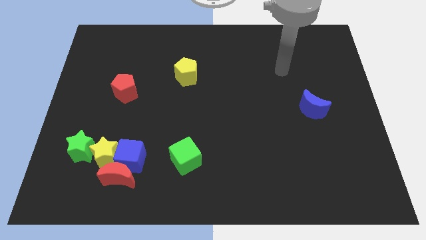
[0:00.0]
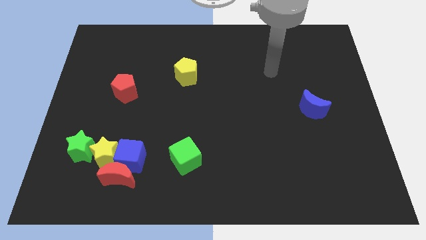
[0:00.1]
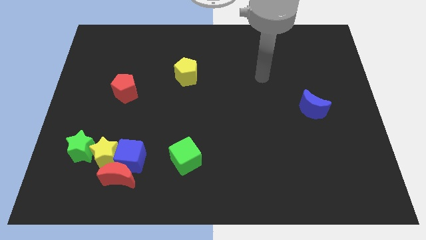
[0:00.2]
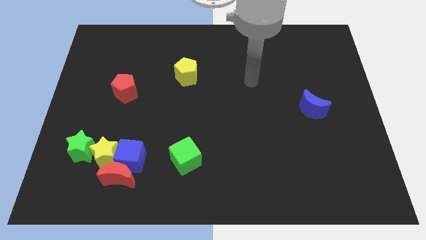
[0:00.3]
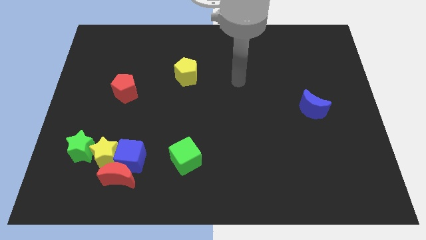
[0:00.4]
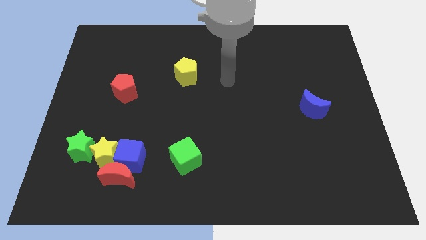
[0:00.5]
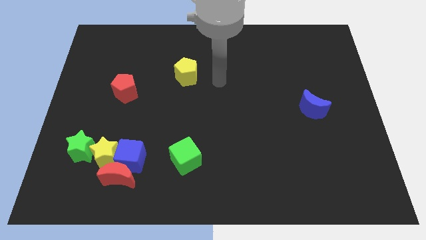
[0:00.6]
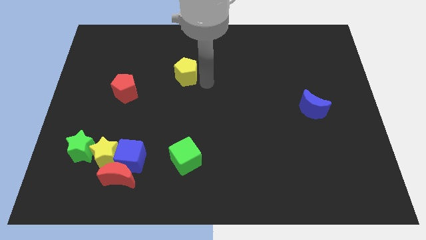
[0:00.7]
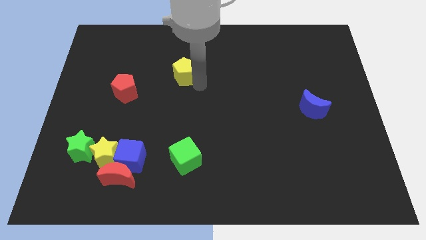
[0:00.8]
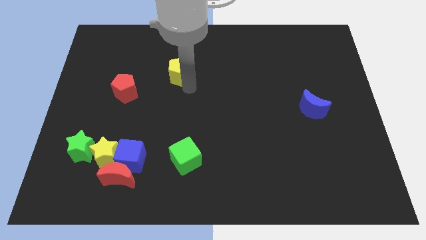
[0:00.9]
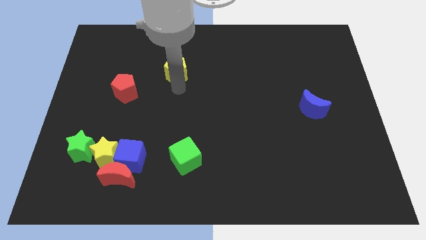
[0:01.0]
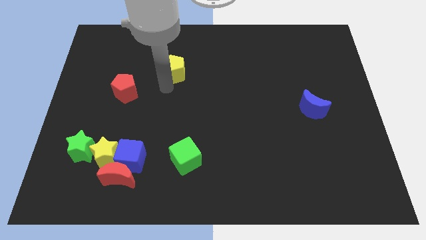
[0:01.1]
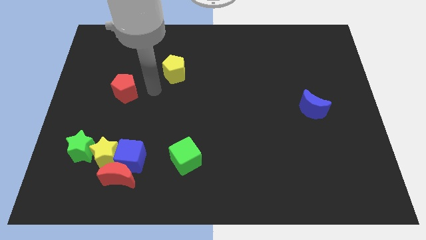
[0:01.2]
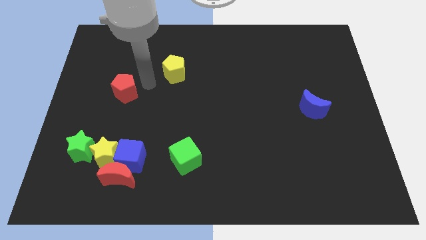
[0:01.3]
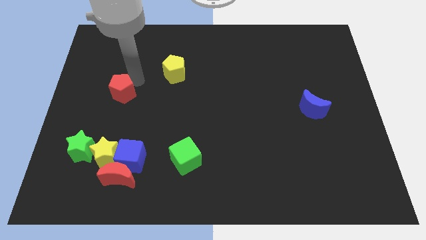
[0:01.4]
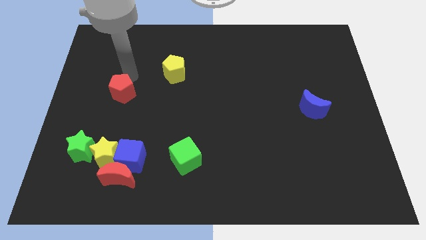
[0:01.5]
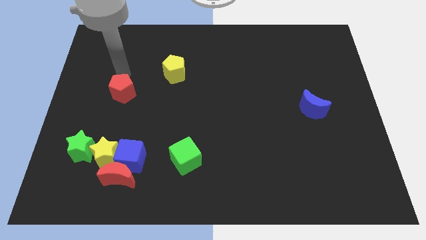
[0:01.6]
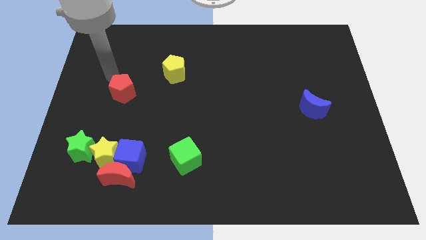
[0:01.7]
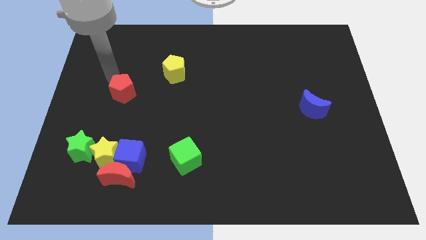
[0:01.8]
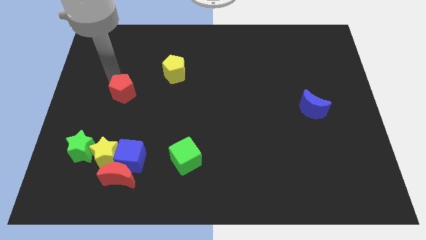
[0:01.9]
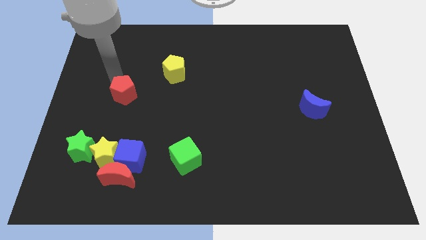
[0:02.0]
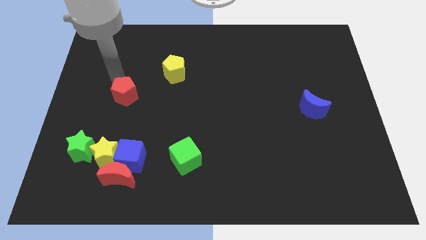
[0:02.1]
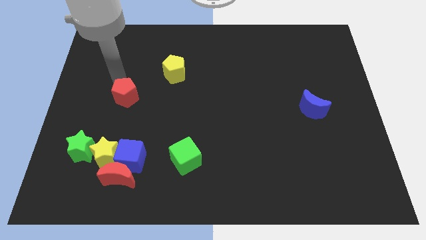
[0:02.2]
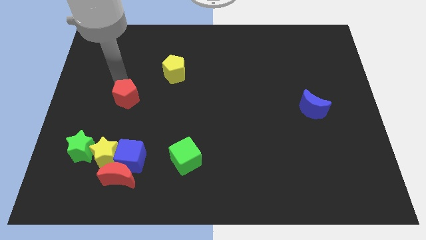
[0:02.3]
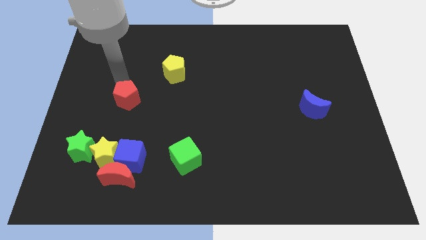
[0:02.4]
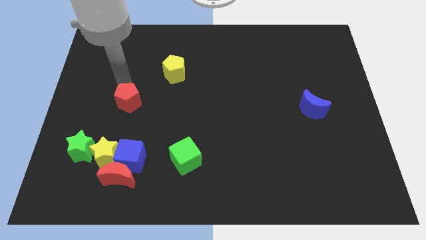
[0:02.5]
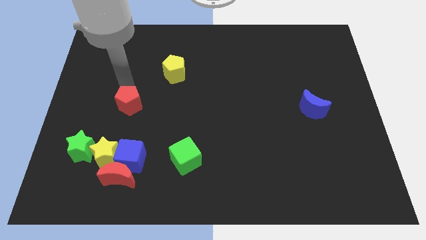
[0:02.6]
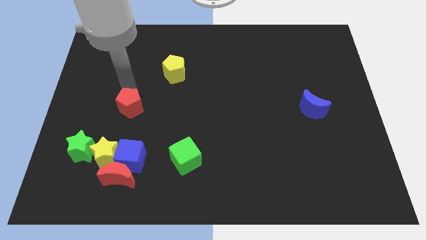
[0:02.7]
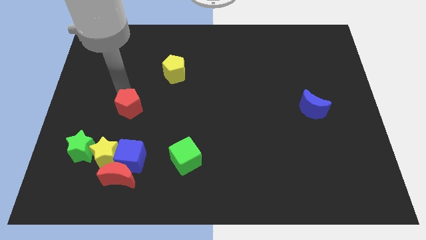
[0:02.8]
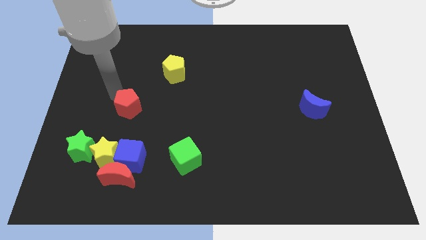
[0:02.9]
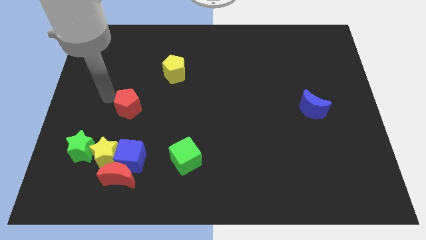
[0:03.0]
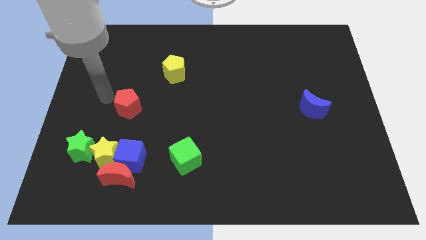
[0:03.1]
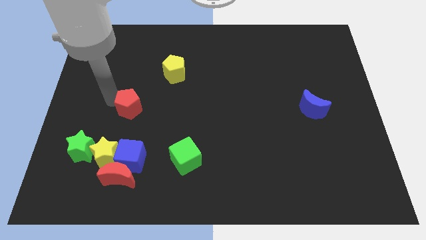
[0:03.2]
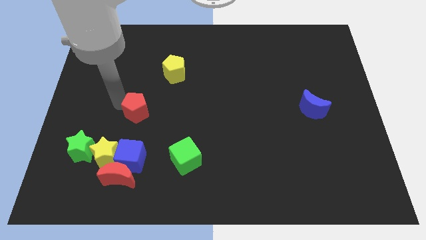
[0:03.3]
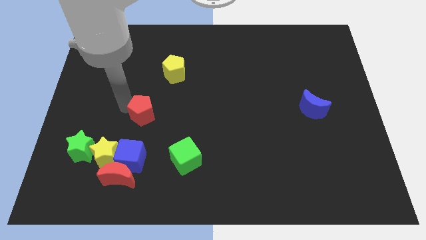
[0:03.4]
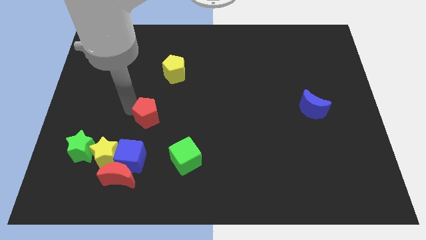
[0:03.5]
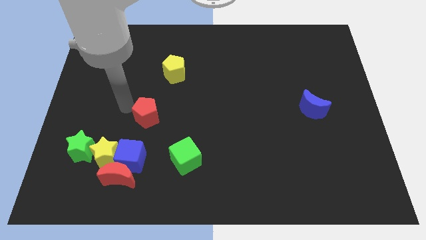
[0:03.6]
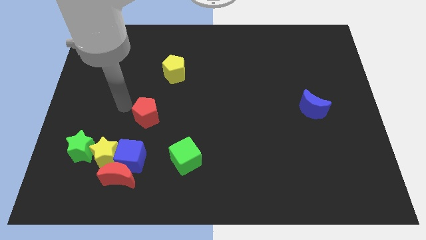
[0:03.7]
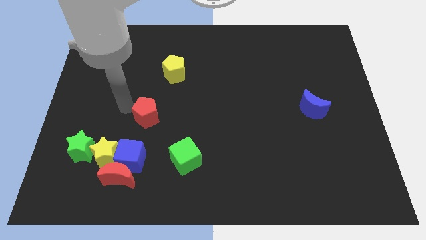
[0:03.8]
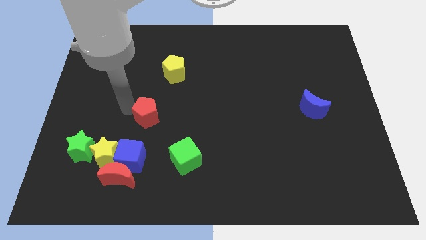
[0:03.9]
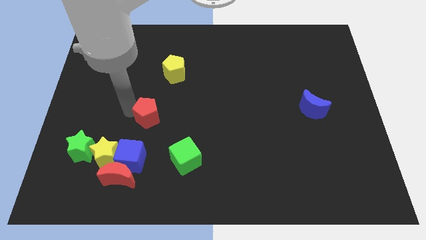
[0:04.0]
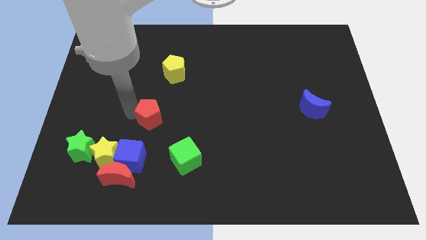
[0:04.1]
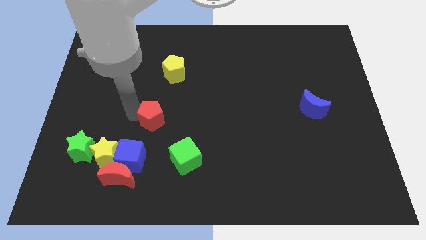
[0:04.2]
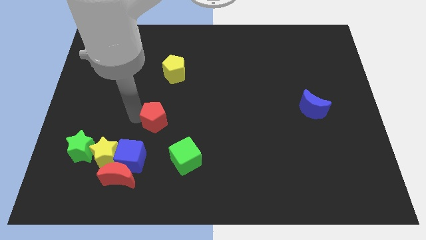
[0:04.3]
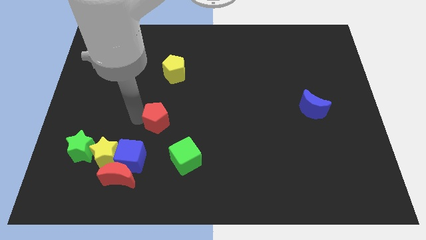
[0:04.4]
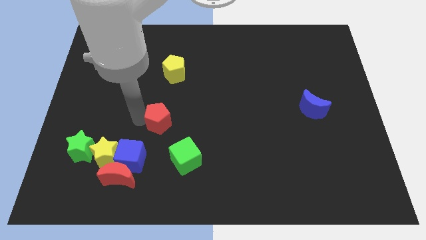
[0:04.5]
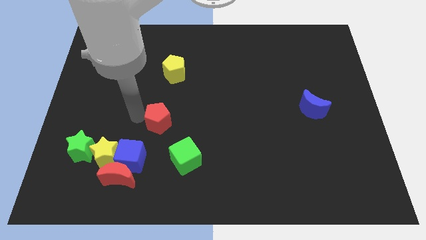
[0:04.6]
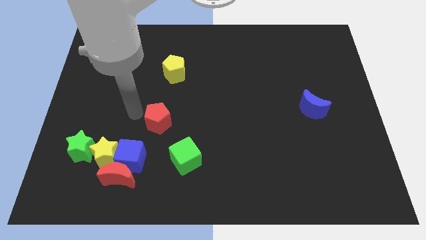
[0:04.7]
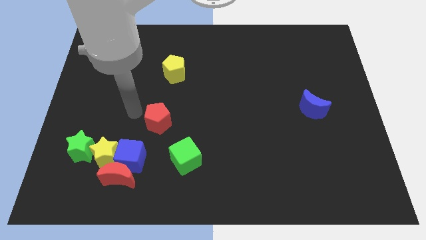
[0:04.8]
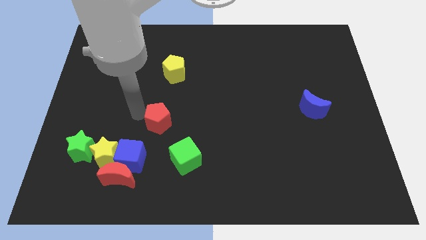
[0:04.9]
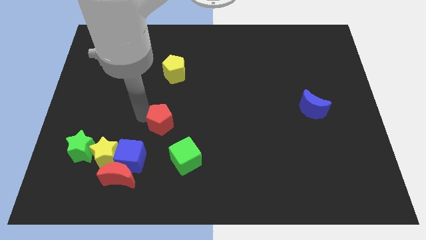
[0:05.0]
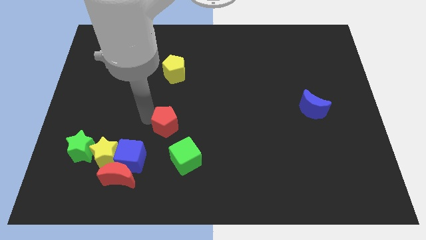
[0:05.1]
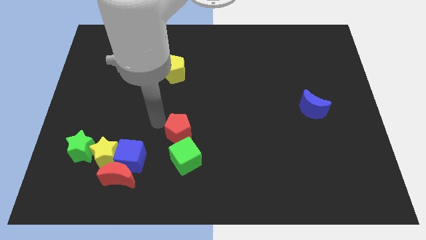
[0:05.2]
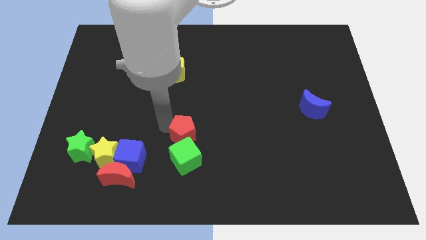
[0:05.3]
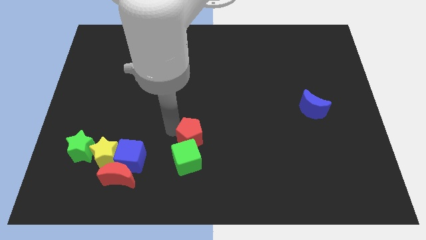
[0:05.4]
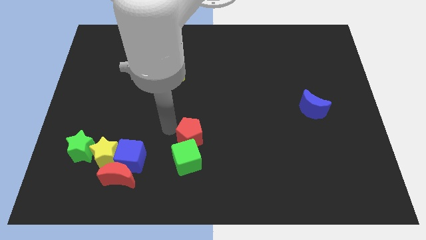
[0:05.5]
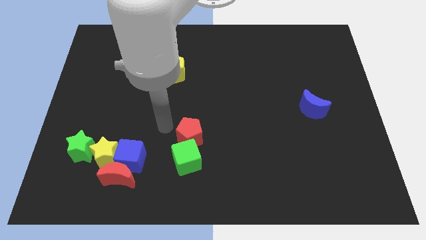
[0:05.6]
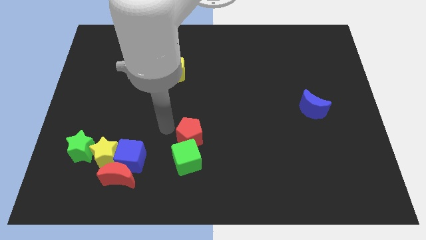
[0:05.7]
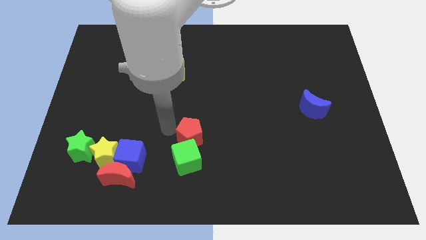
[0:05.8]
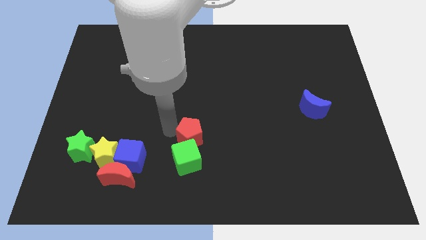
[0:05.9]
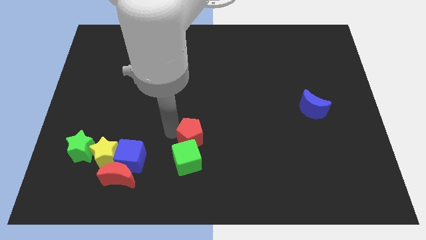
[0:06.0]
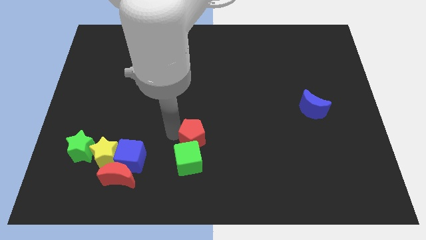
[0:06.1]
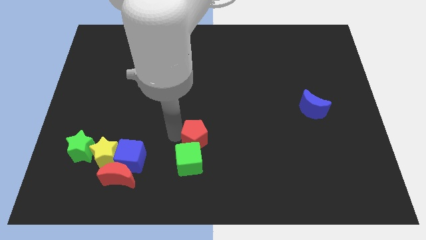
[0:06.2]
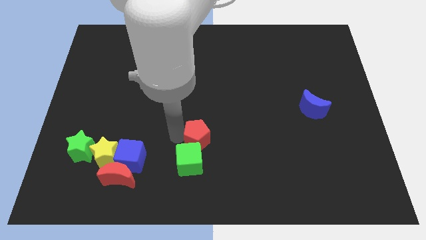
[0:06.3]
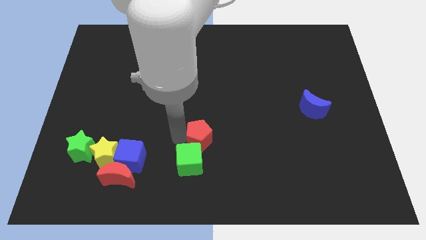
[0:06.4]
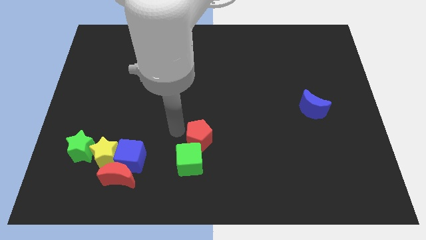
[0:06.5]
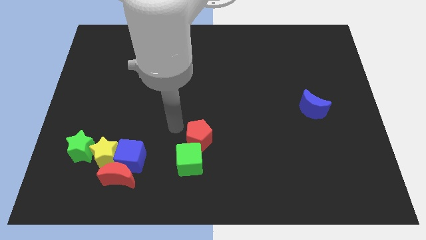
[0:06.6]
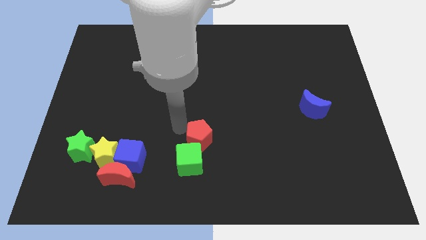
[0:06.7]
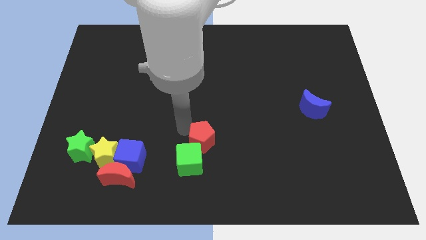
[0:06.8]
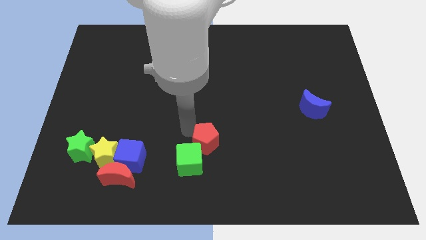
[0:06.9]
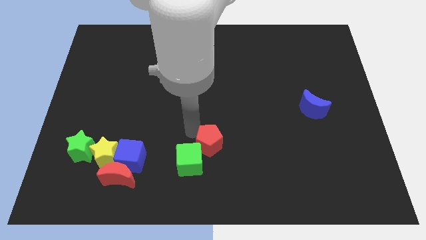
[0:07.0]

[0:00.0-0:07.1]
push the red pentagon to the right side of the green cube
